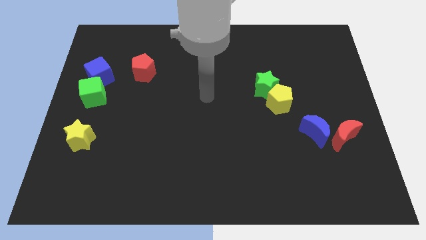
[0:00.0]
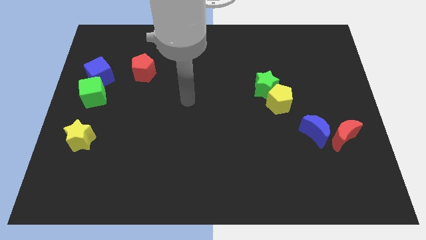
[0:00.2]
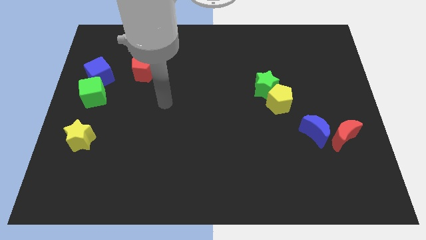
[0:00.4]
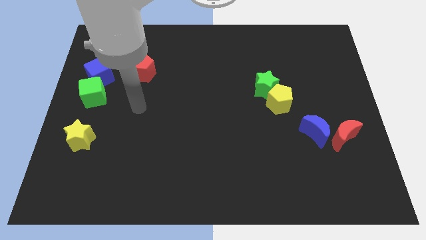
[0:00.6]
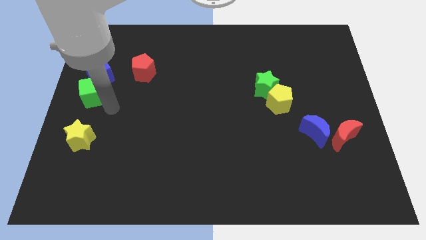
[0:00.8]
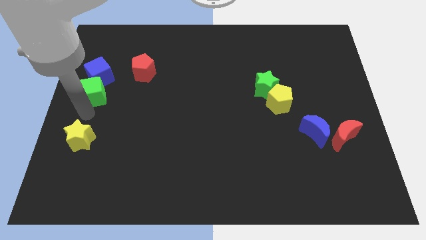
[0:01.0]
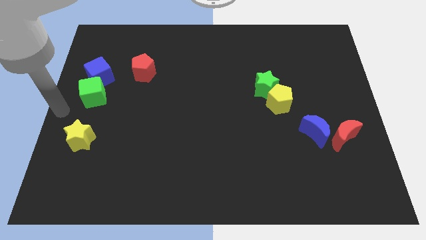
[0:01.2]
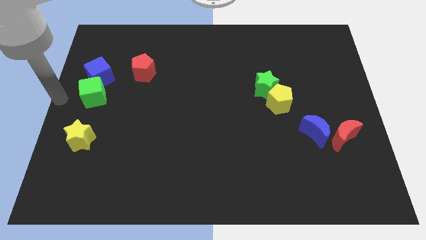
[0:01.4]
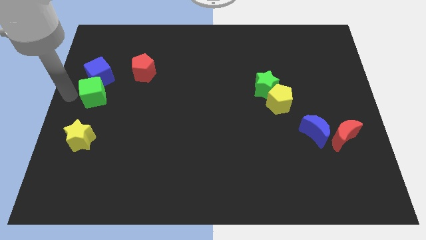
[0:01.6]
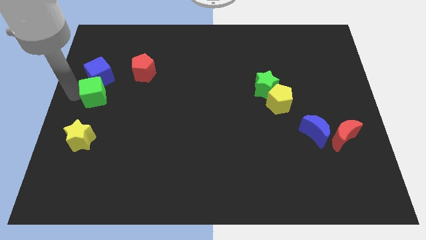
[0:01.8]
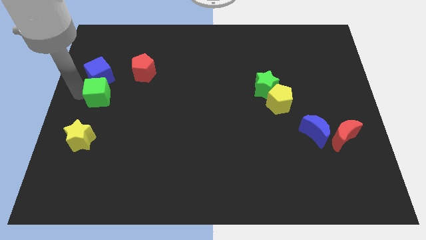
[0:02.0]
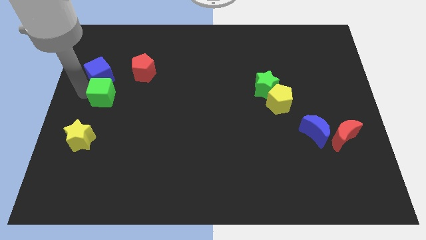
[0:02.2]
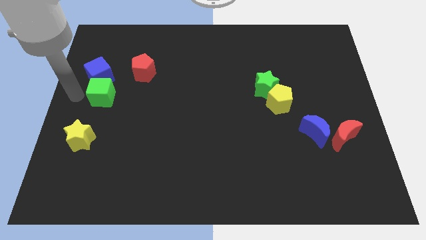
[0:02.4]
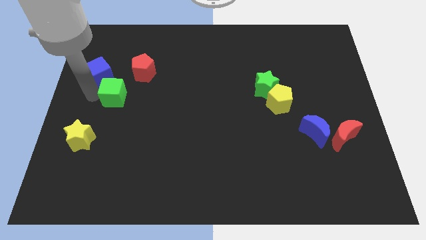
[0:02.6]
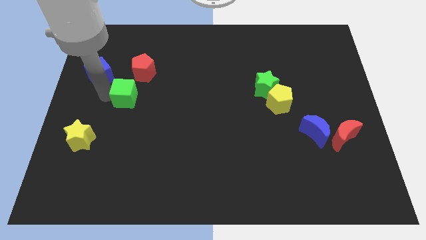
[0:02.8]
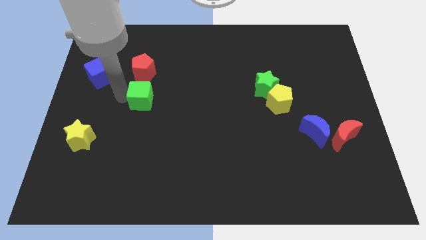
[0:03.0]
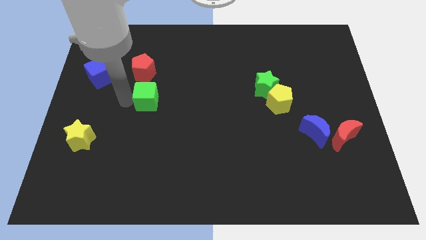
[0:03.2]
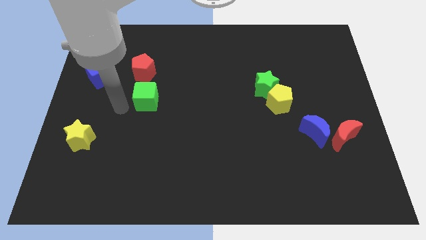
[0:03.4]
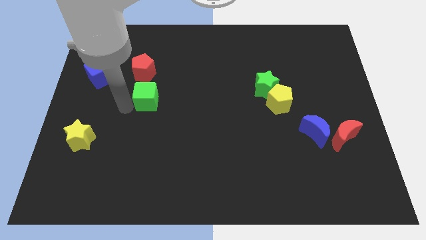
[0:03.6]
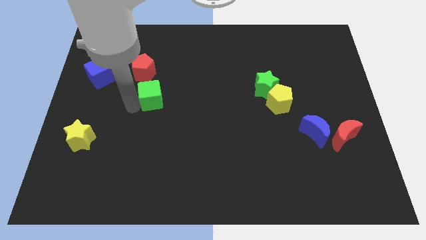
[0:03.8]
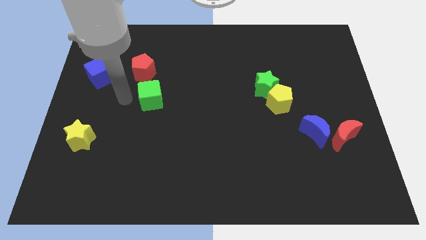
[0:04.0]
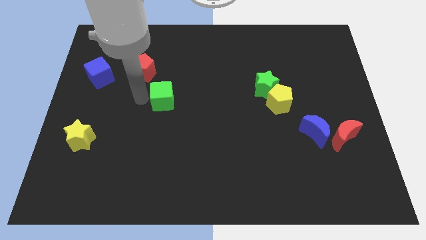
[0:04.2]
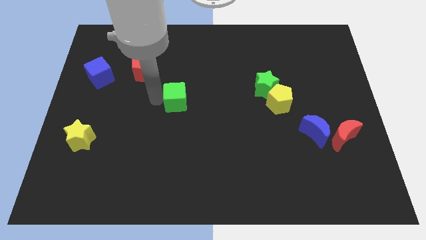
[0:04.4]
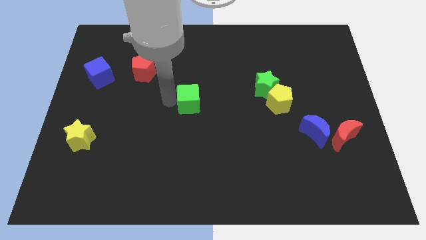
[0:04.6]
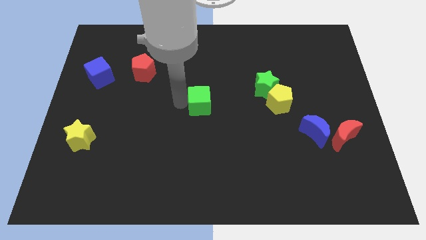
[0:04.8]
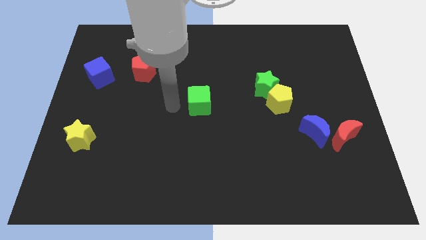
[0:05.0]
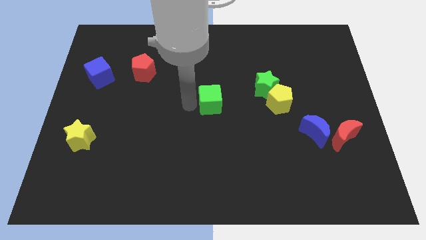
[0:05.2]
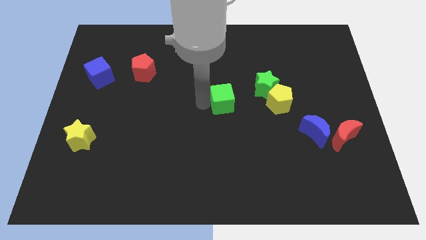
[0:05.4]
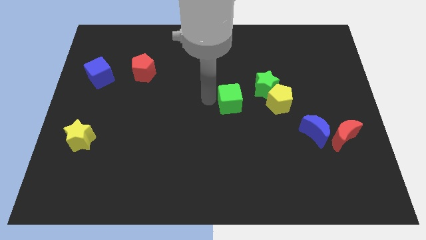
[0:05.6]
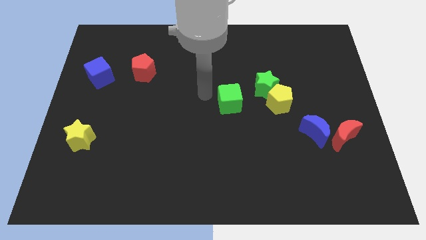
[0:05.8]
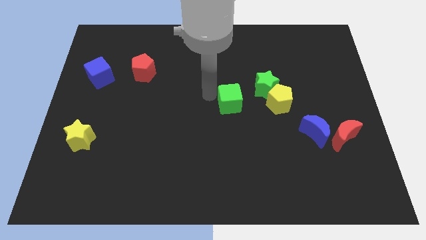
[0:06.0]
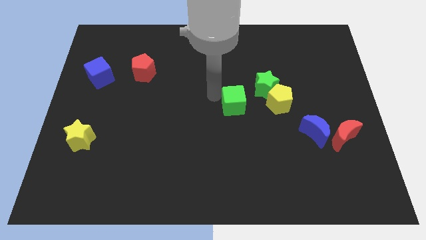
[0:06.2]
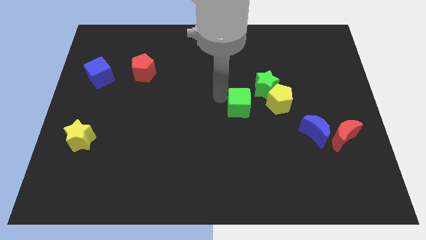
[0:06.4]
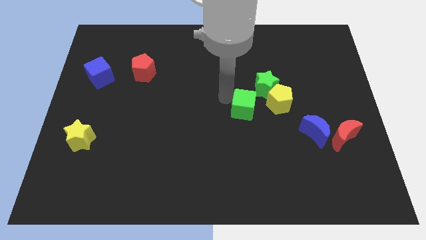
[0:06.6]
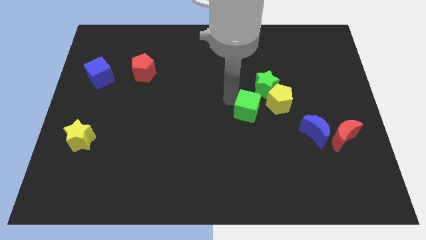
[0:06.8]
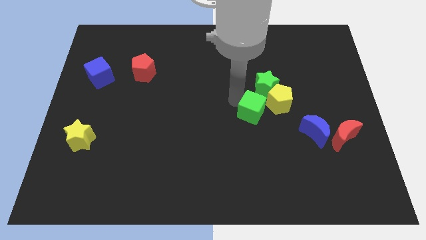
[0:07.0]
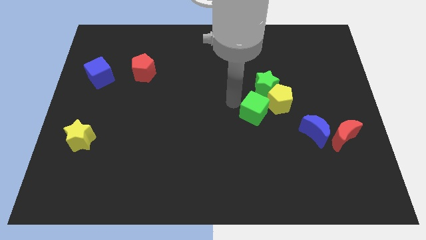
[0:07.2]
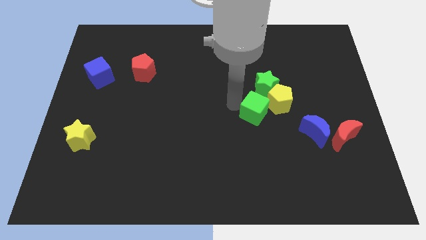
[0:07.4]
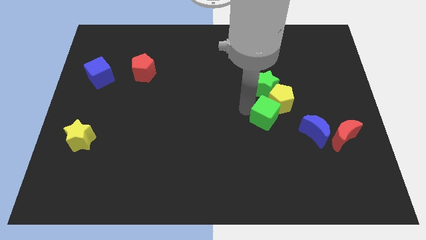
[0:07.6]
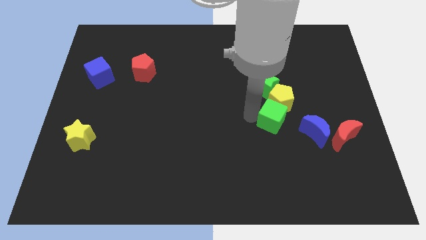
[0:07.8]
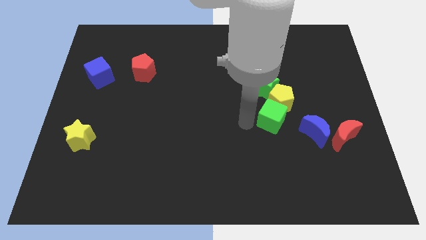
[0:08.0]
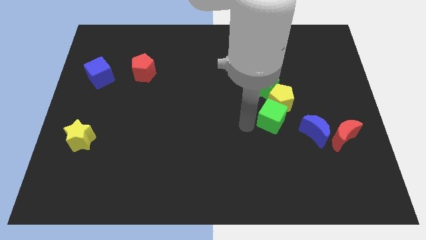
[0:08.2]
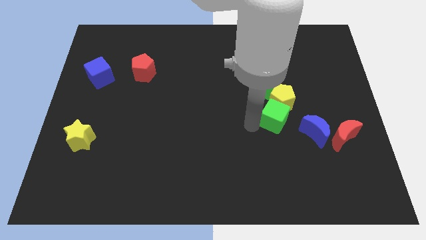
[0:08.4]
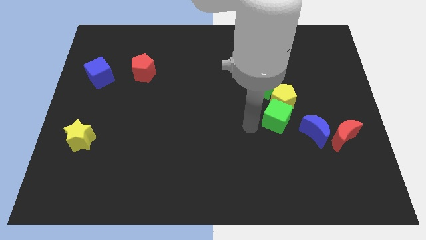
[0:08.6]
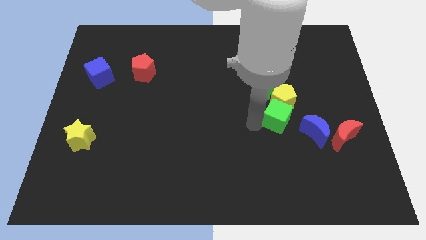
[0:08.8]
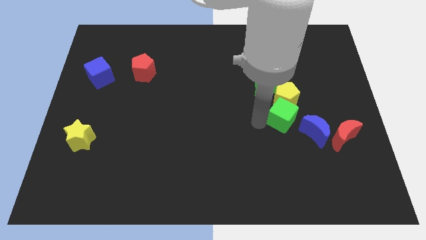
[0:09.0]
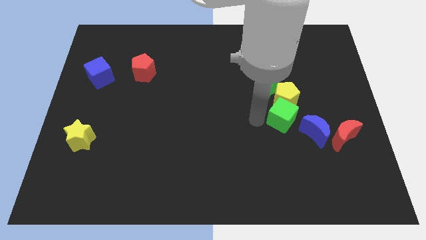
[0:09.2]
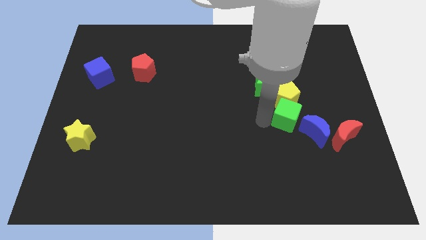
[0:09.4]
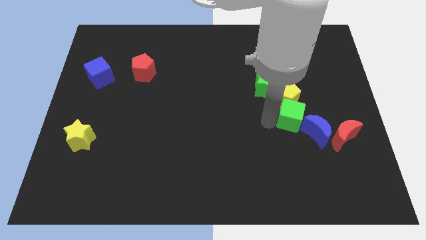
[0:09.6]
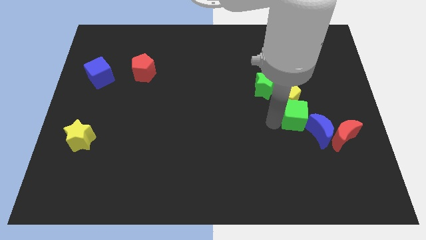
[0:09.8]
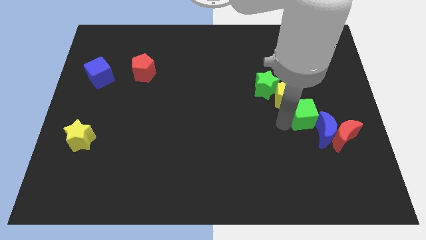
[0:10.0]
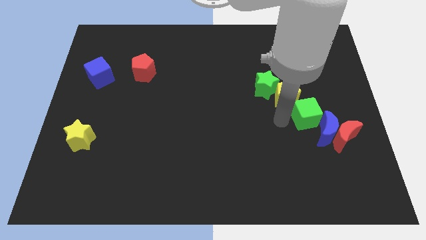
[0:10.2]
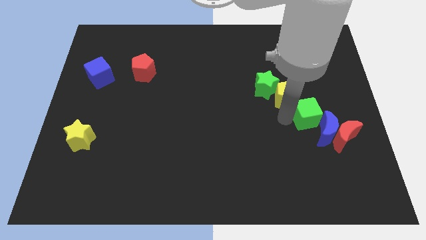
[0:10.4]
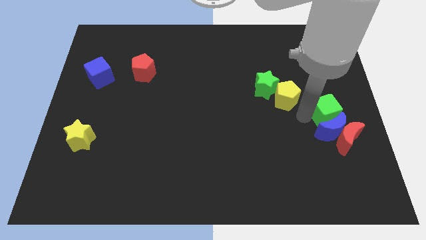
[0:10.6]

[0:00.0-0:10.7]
put the green cube diagonally up and to the right of the blue moon
